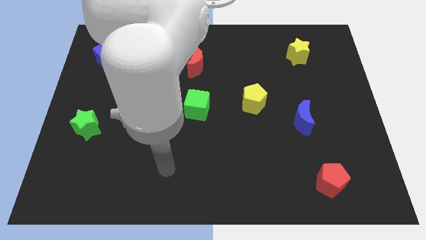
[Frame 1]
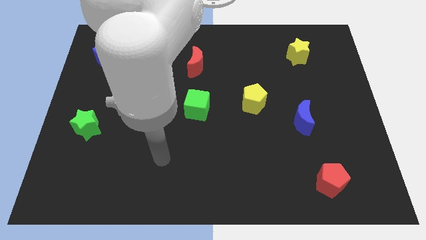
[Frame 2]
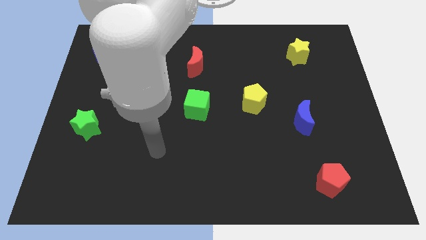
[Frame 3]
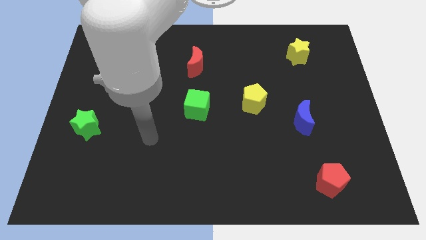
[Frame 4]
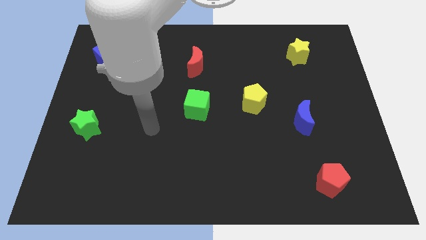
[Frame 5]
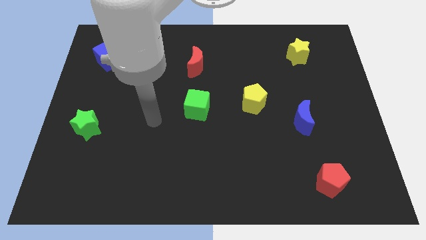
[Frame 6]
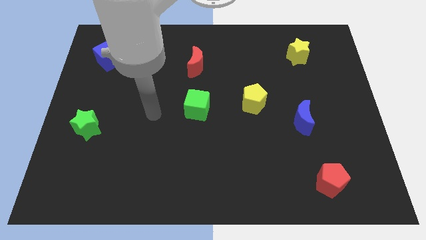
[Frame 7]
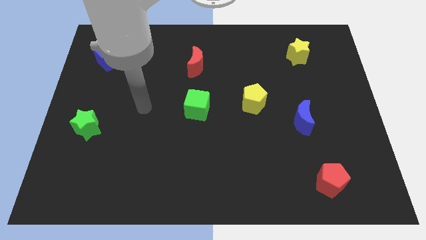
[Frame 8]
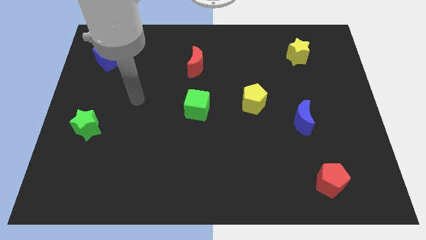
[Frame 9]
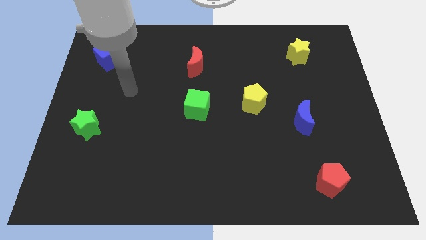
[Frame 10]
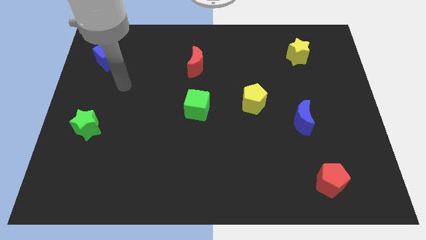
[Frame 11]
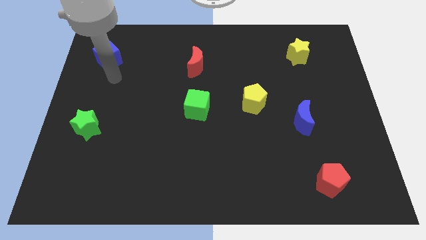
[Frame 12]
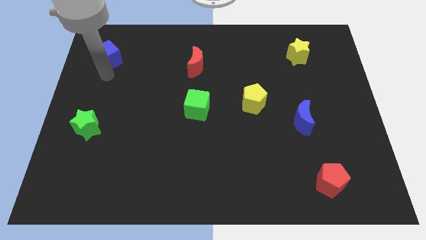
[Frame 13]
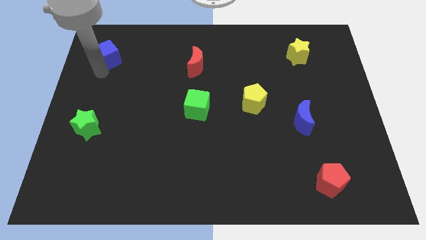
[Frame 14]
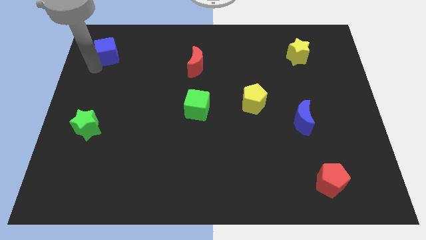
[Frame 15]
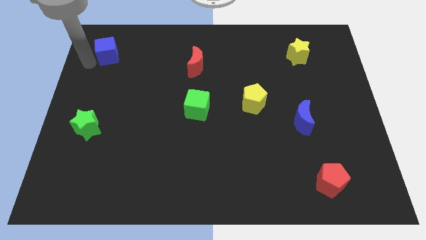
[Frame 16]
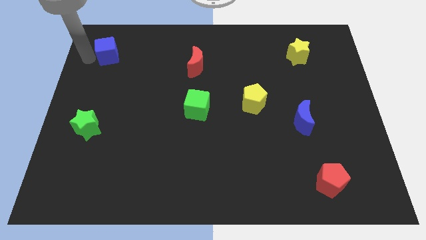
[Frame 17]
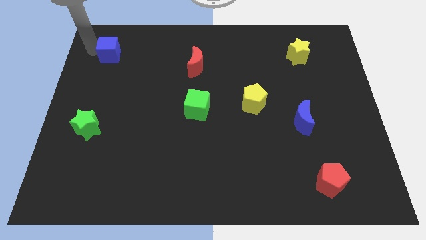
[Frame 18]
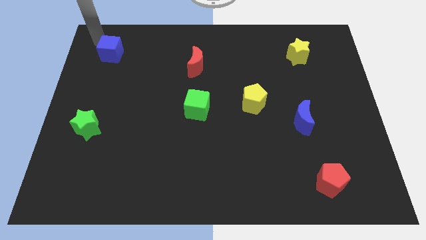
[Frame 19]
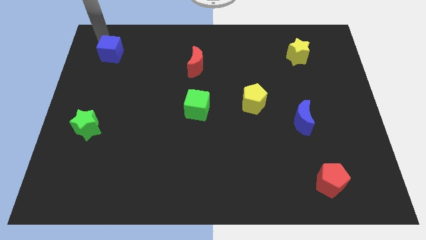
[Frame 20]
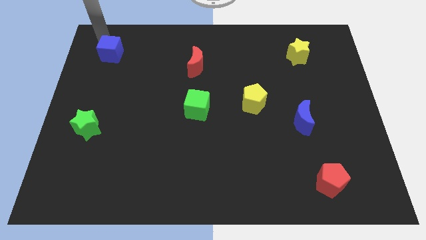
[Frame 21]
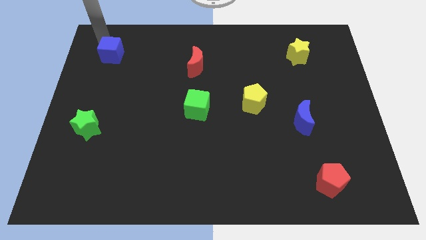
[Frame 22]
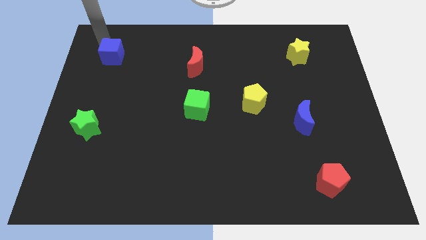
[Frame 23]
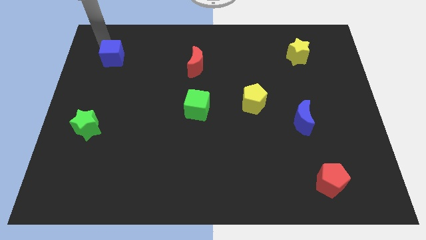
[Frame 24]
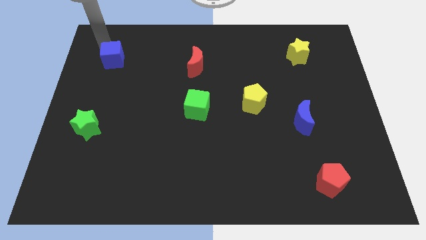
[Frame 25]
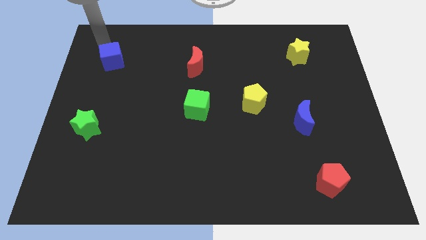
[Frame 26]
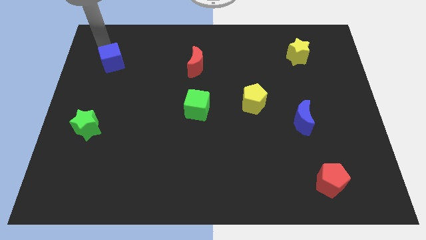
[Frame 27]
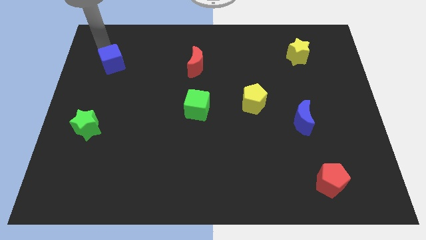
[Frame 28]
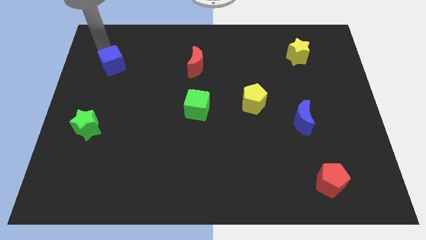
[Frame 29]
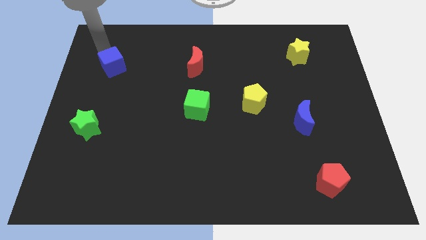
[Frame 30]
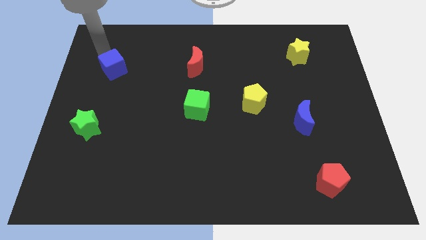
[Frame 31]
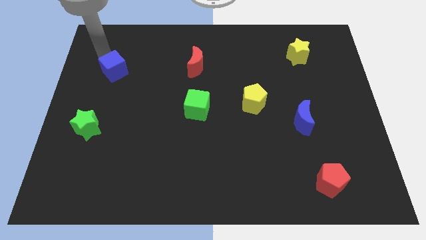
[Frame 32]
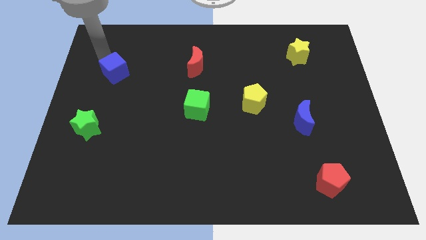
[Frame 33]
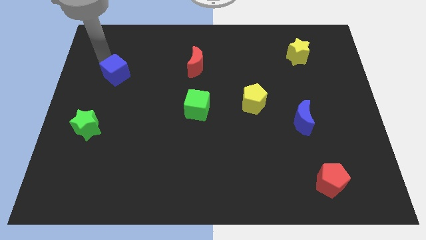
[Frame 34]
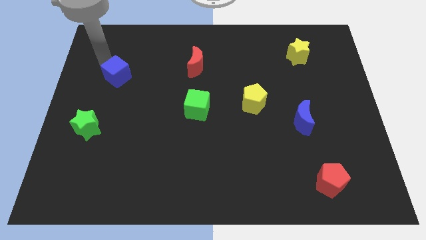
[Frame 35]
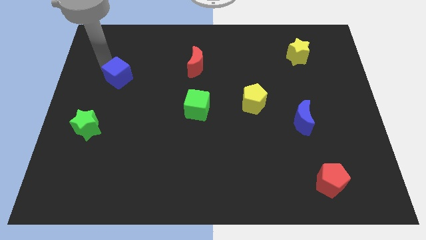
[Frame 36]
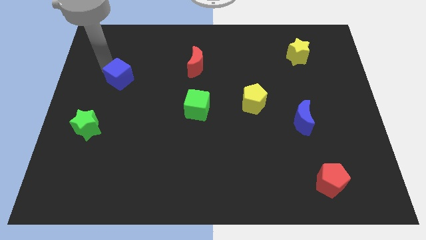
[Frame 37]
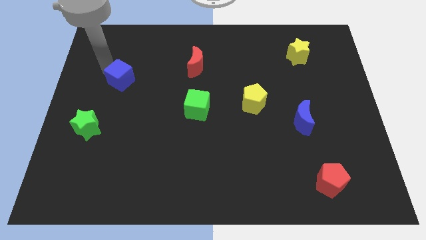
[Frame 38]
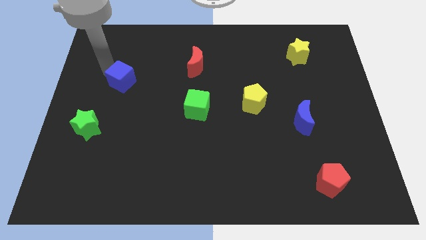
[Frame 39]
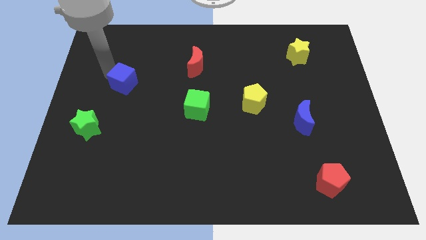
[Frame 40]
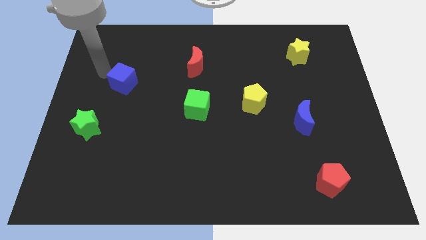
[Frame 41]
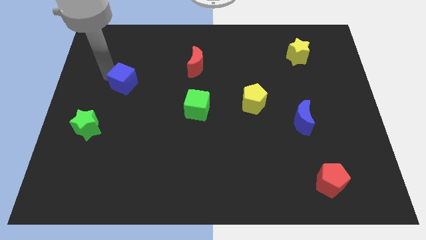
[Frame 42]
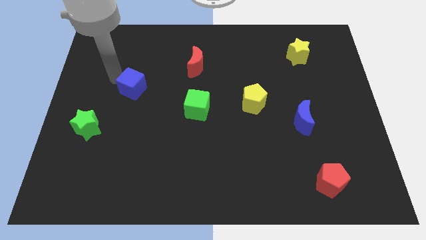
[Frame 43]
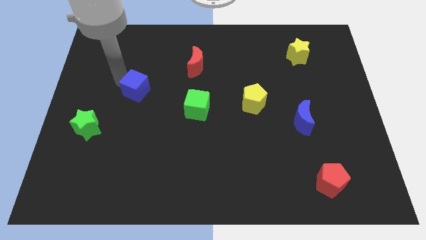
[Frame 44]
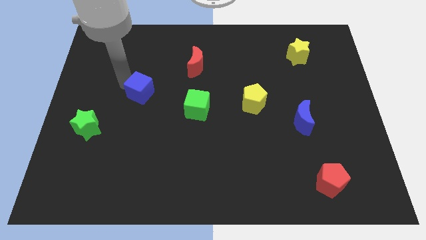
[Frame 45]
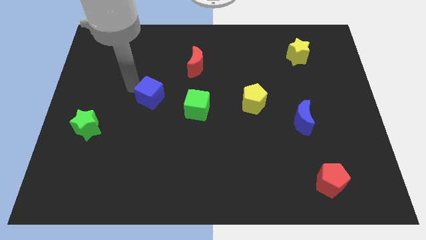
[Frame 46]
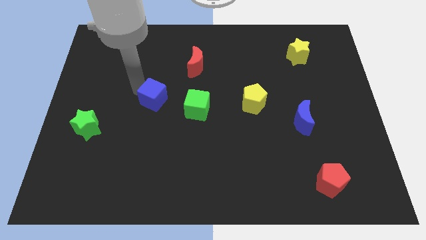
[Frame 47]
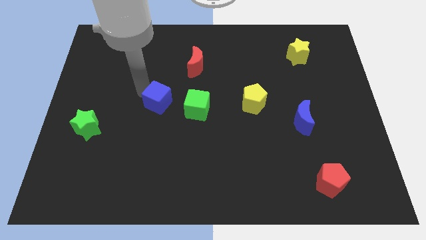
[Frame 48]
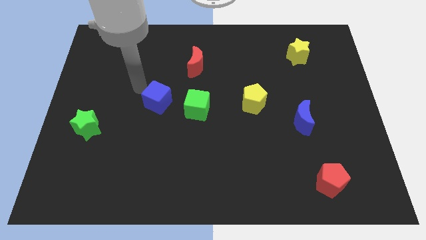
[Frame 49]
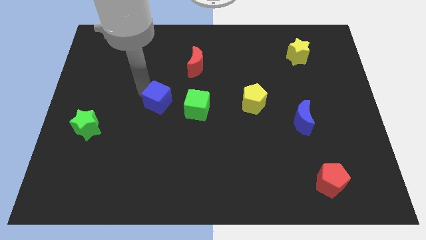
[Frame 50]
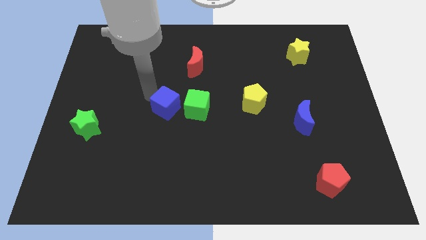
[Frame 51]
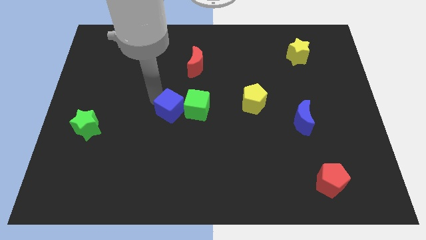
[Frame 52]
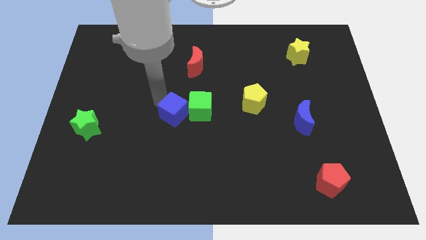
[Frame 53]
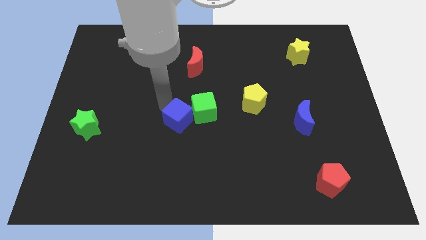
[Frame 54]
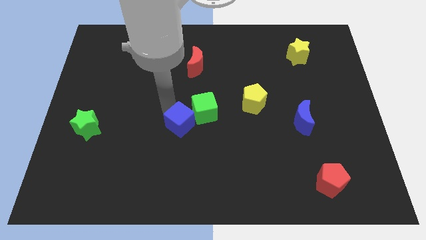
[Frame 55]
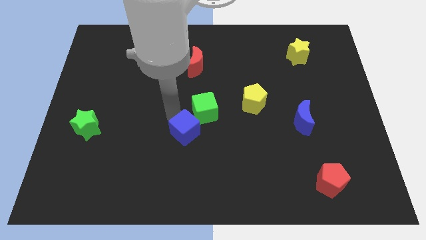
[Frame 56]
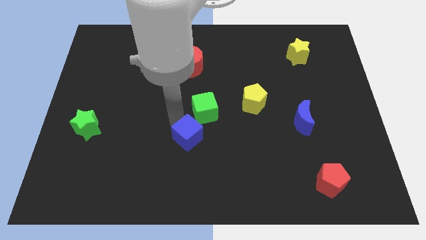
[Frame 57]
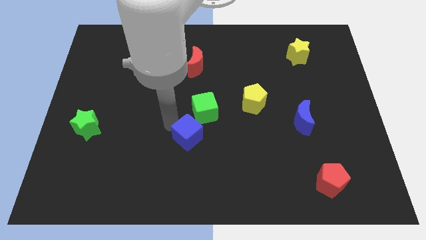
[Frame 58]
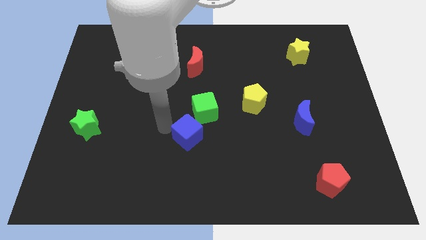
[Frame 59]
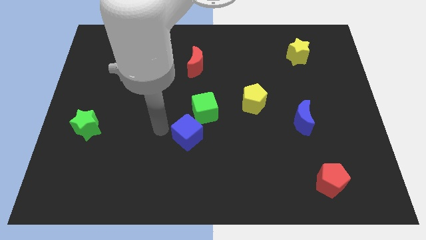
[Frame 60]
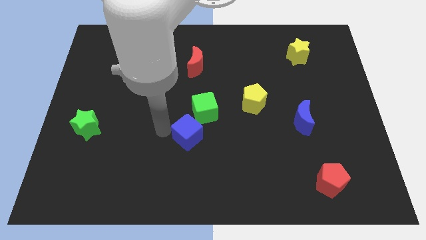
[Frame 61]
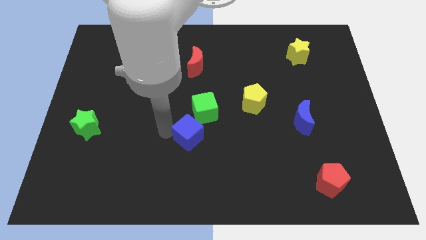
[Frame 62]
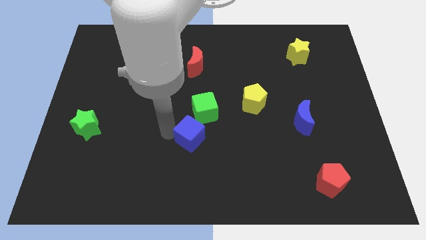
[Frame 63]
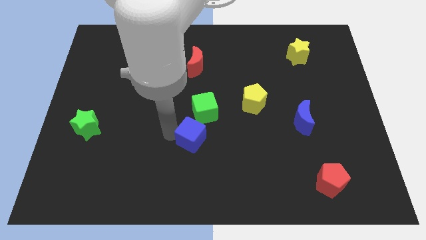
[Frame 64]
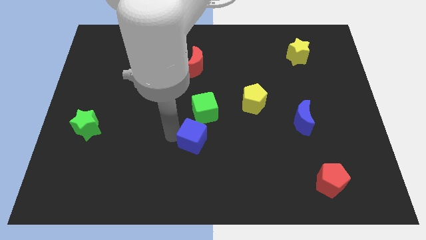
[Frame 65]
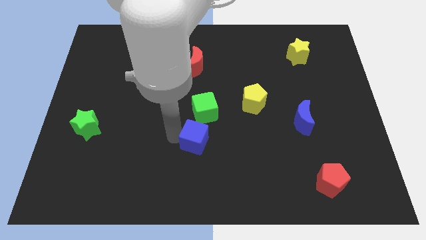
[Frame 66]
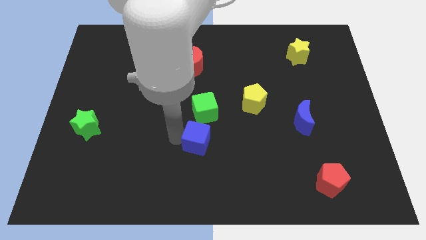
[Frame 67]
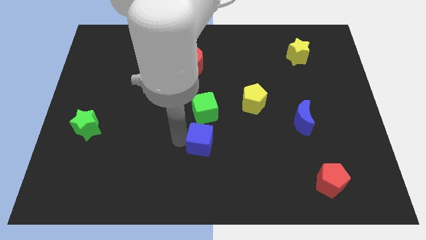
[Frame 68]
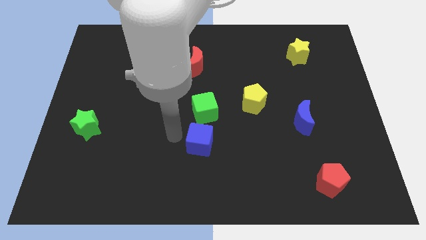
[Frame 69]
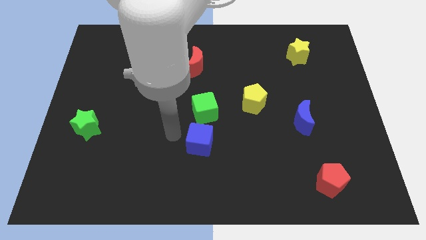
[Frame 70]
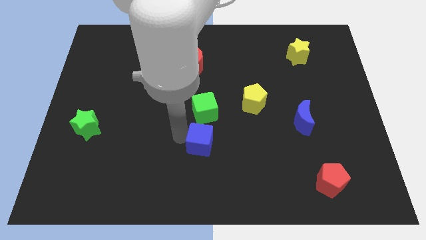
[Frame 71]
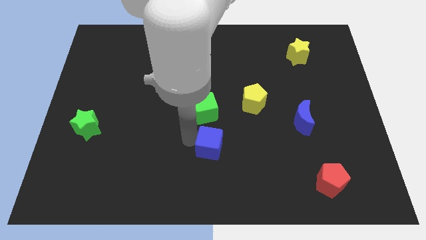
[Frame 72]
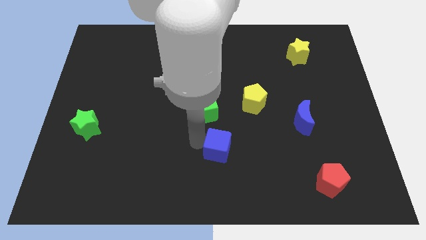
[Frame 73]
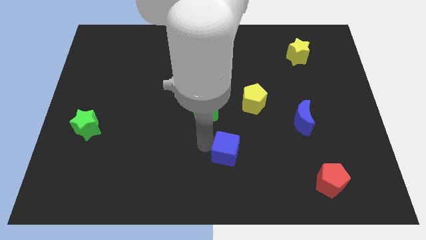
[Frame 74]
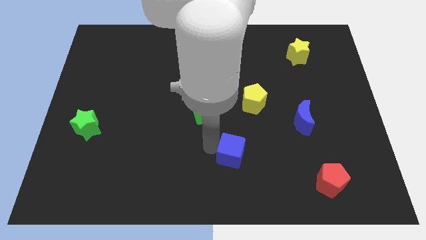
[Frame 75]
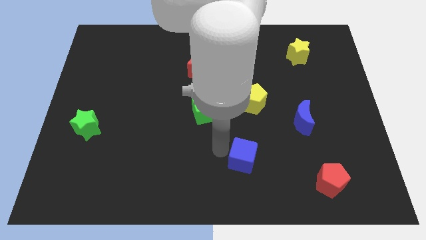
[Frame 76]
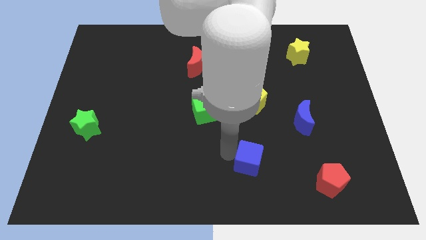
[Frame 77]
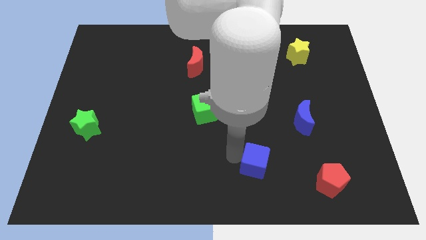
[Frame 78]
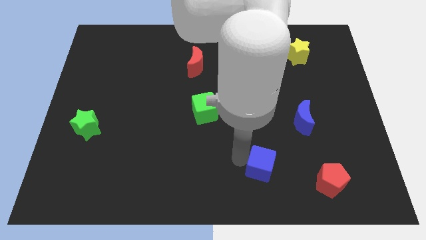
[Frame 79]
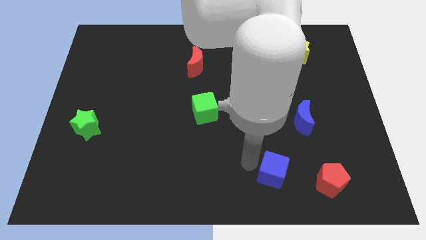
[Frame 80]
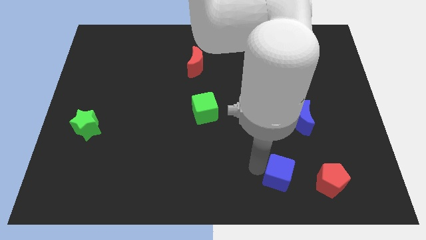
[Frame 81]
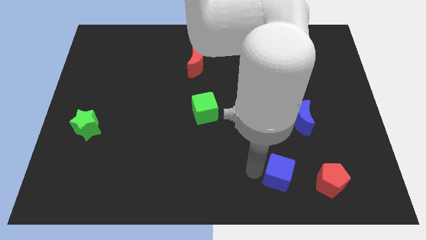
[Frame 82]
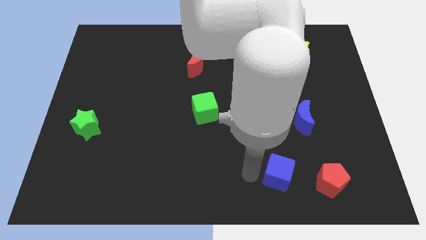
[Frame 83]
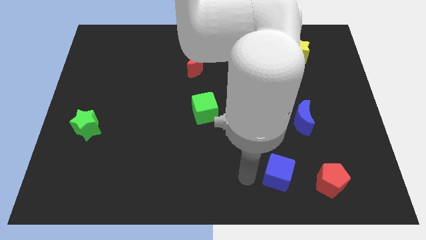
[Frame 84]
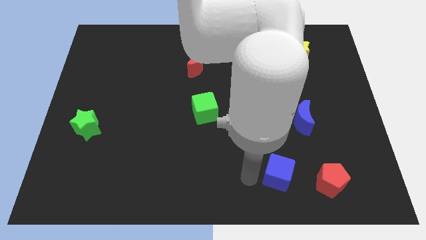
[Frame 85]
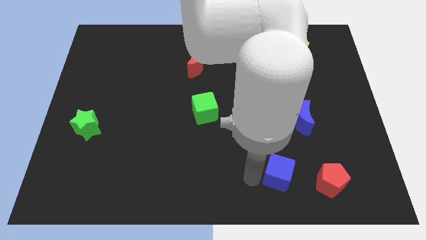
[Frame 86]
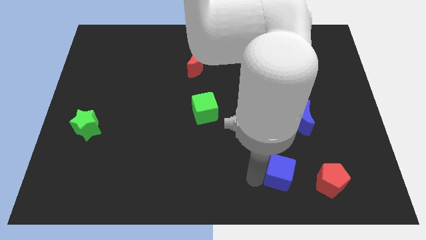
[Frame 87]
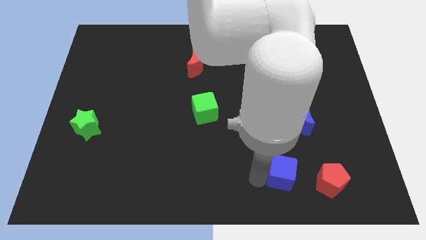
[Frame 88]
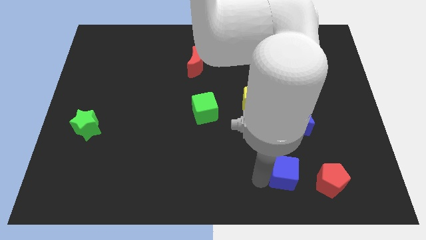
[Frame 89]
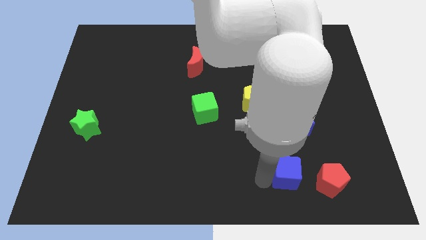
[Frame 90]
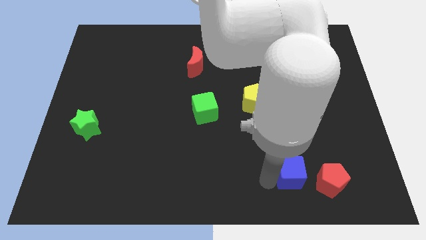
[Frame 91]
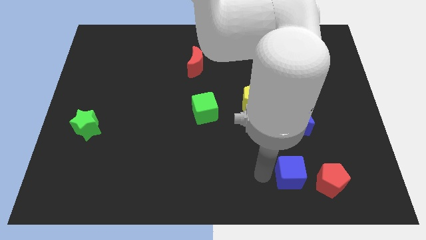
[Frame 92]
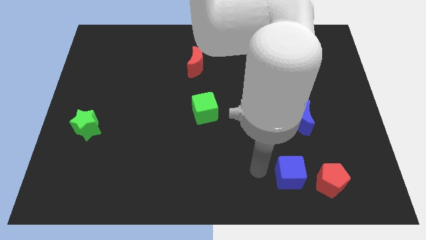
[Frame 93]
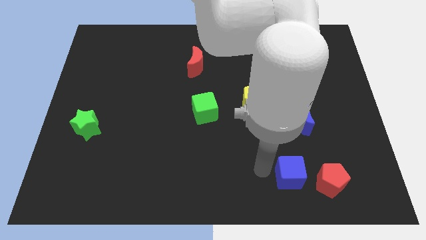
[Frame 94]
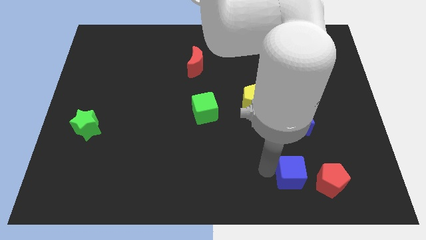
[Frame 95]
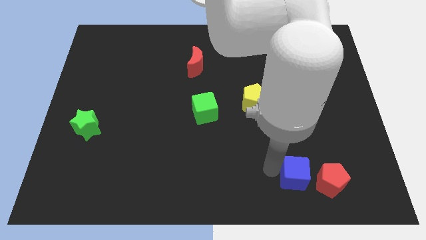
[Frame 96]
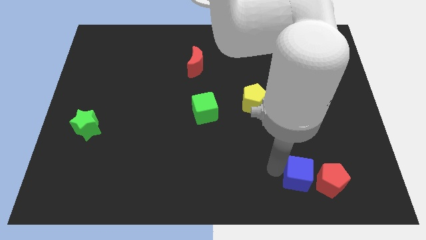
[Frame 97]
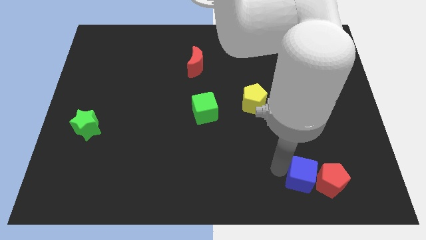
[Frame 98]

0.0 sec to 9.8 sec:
slide the blue cube close to the red pentagon
